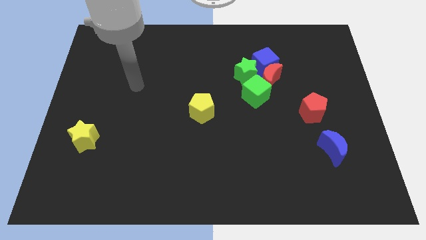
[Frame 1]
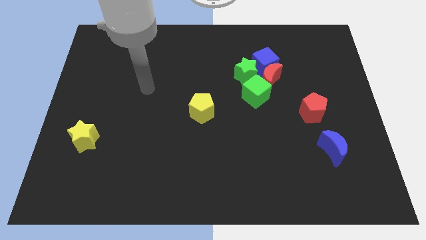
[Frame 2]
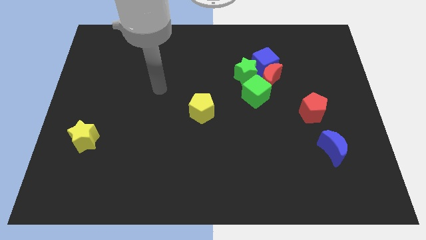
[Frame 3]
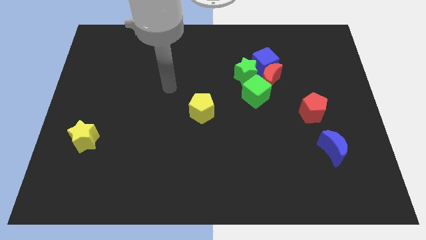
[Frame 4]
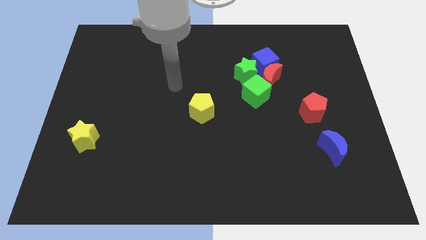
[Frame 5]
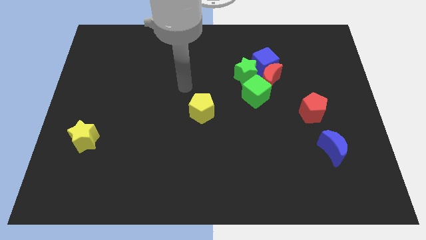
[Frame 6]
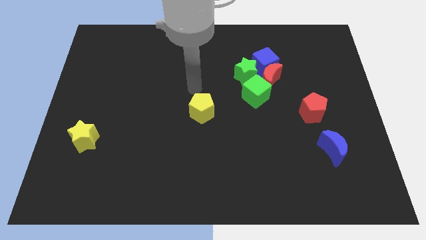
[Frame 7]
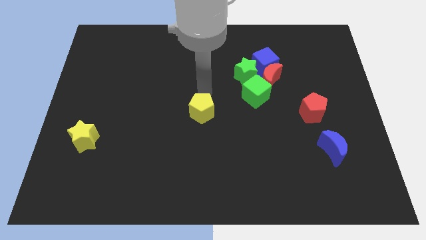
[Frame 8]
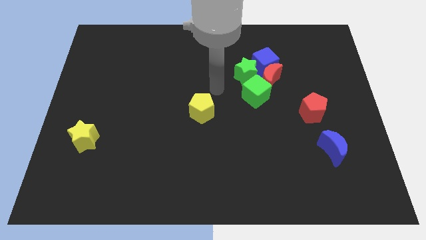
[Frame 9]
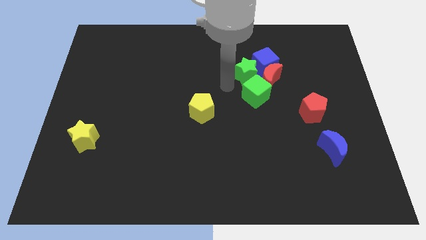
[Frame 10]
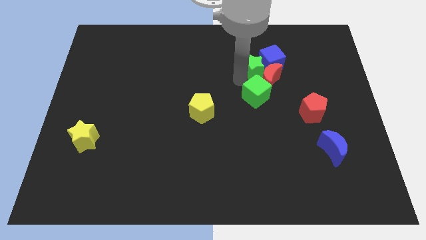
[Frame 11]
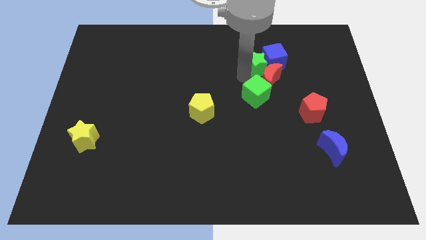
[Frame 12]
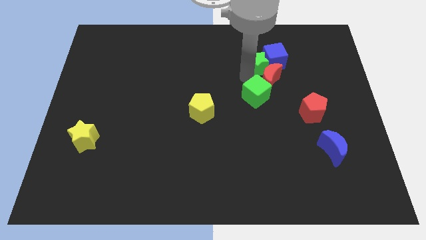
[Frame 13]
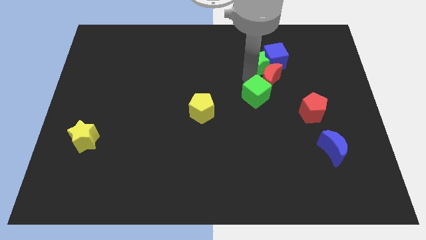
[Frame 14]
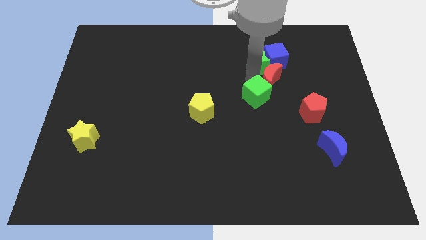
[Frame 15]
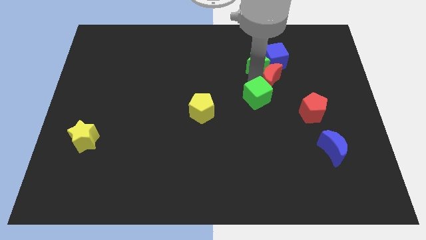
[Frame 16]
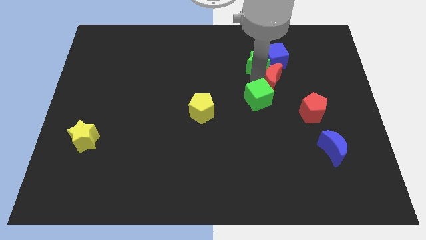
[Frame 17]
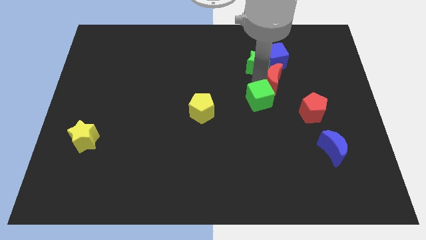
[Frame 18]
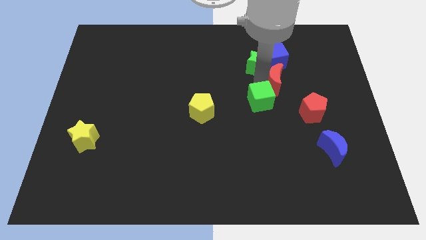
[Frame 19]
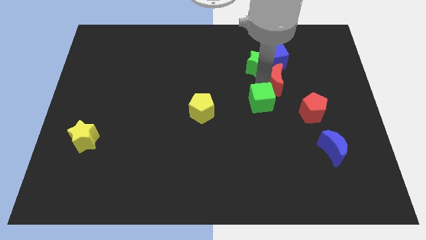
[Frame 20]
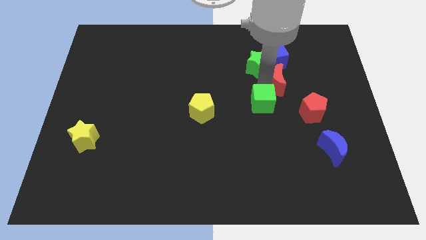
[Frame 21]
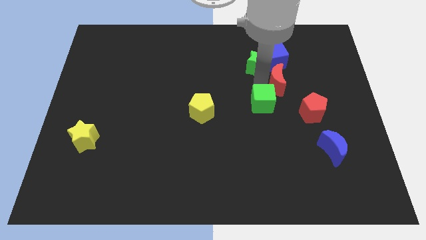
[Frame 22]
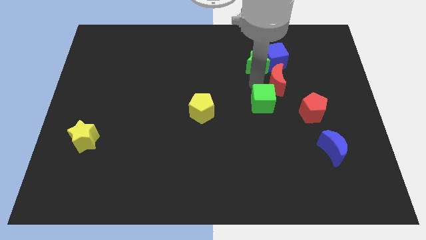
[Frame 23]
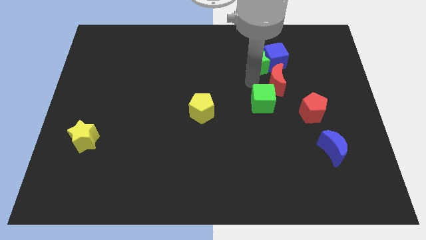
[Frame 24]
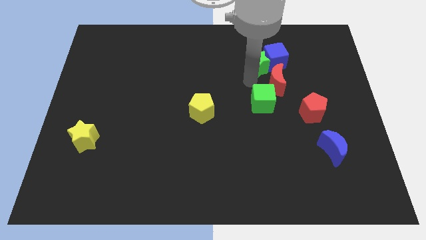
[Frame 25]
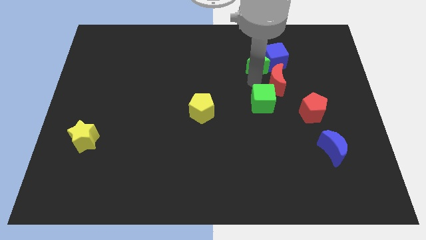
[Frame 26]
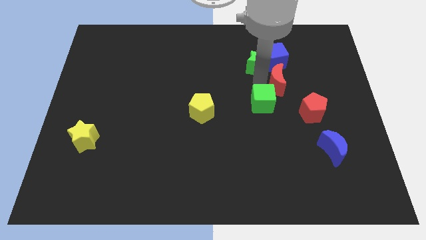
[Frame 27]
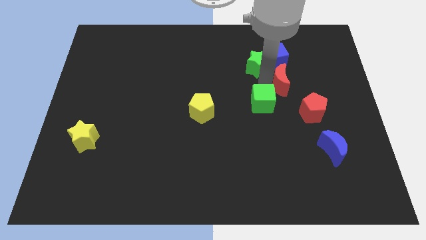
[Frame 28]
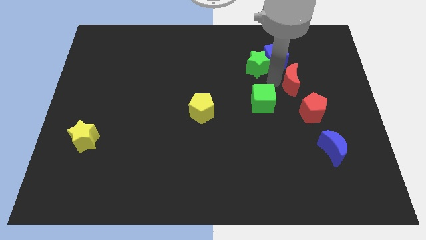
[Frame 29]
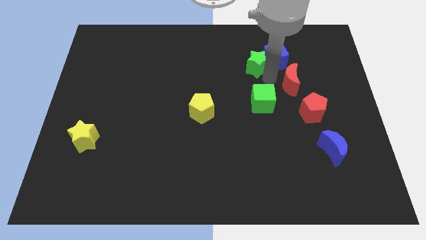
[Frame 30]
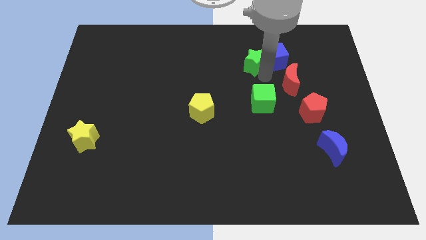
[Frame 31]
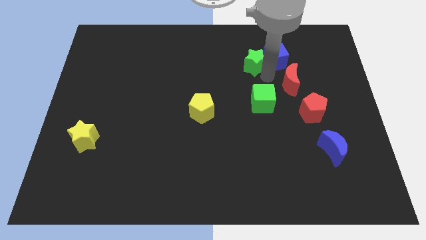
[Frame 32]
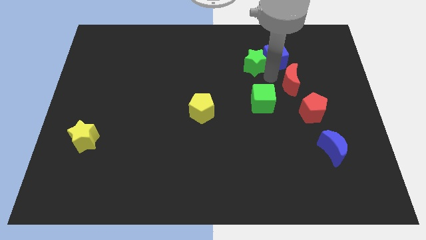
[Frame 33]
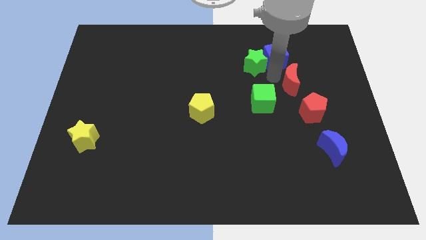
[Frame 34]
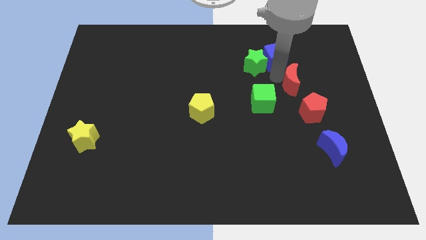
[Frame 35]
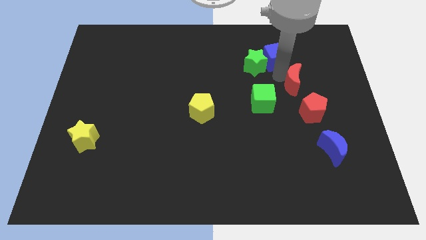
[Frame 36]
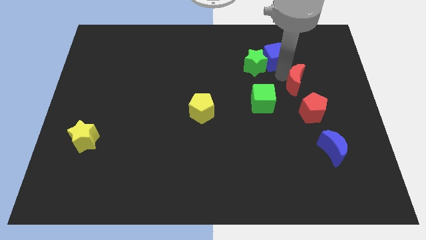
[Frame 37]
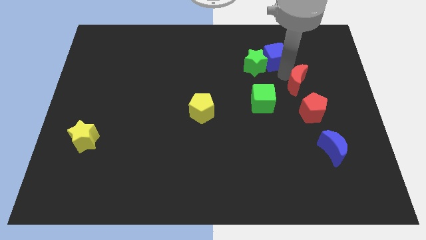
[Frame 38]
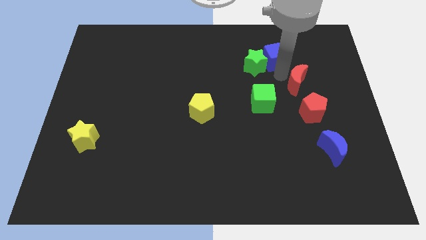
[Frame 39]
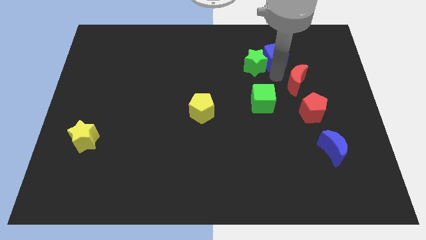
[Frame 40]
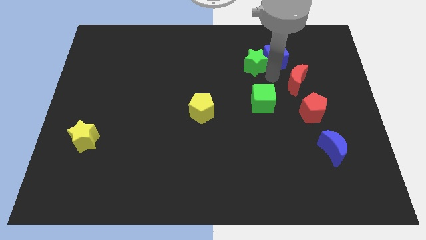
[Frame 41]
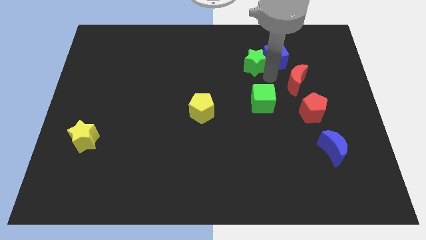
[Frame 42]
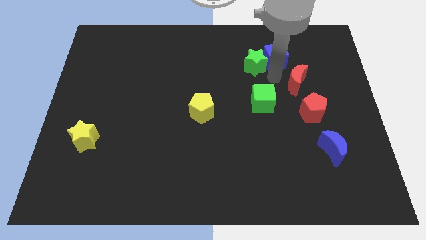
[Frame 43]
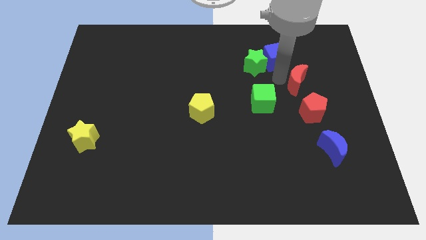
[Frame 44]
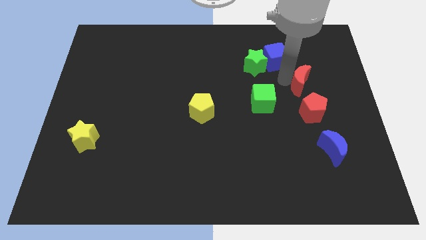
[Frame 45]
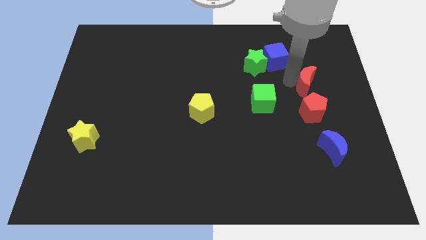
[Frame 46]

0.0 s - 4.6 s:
pull the red moon apart from the group

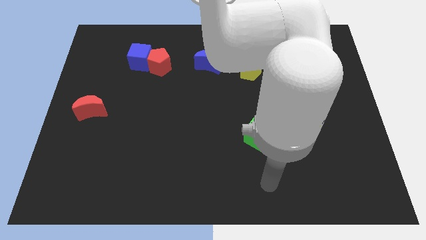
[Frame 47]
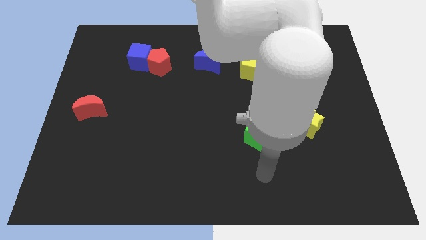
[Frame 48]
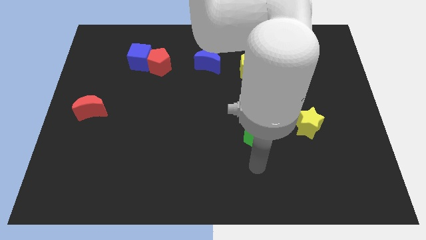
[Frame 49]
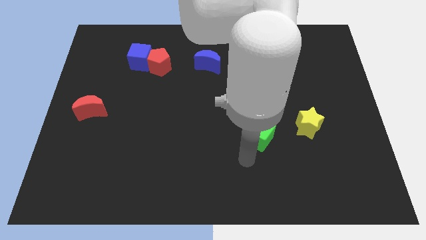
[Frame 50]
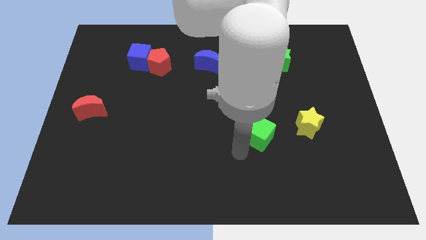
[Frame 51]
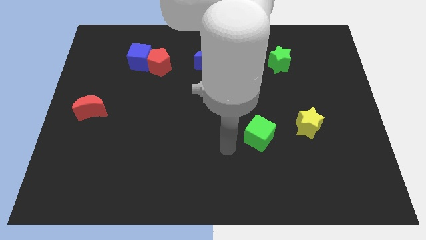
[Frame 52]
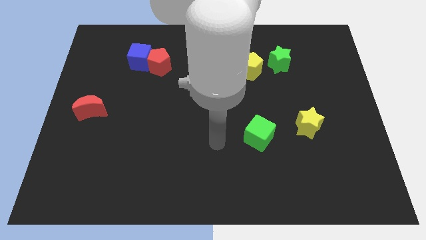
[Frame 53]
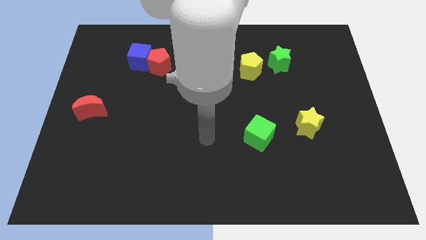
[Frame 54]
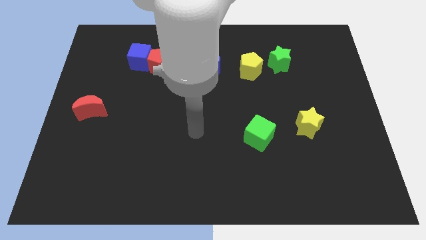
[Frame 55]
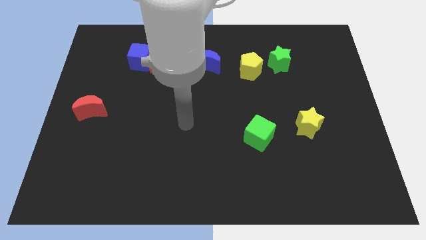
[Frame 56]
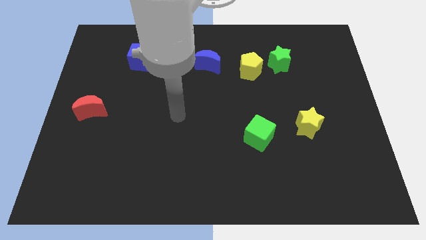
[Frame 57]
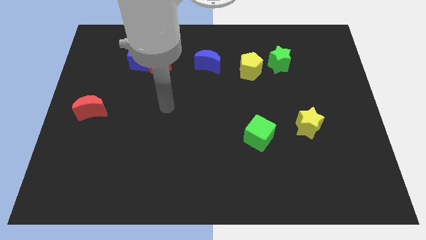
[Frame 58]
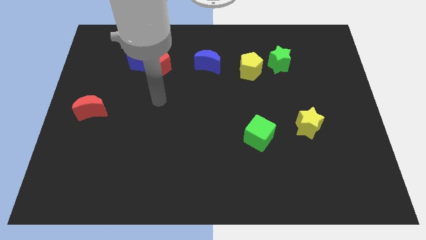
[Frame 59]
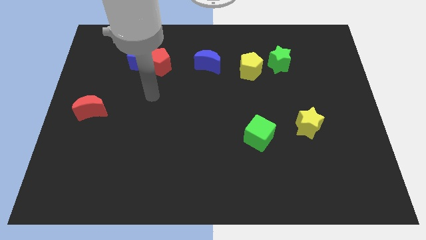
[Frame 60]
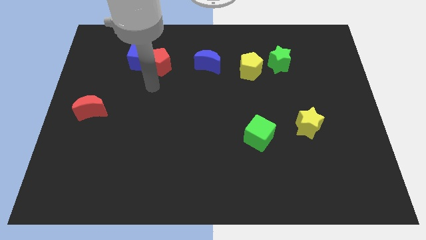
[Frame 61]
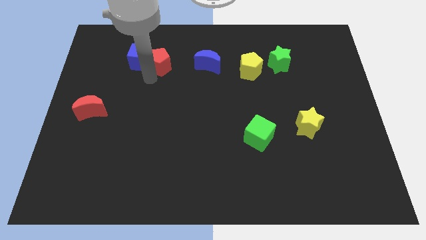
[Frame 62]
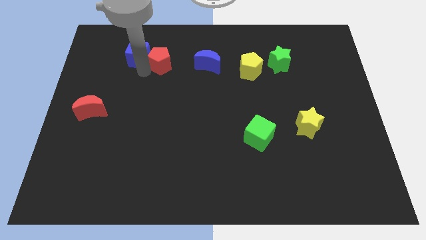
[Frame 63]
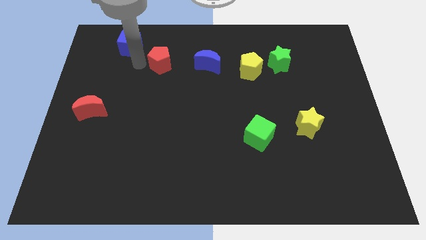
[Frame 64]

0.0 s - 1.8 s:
separate the red pentagon from the blue cube

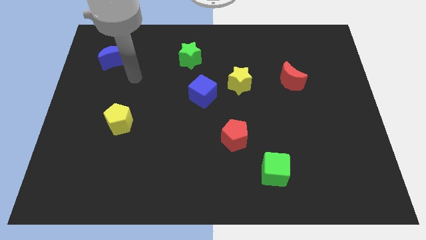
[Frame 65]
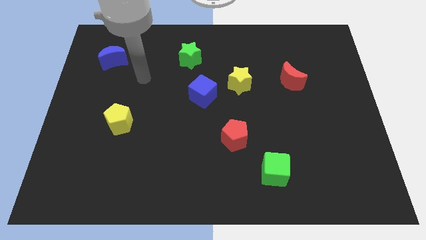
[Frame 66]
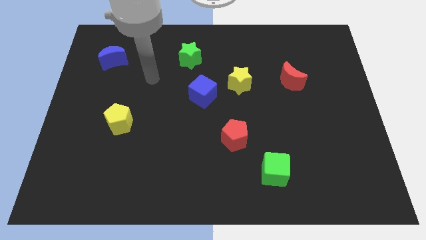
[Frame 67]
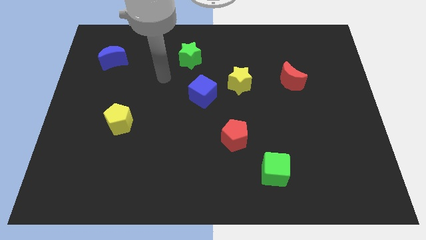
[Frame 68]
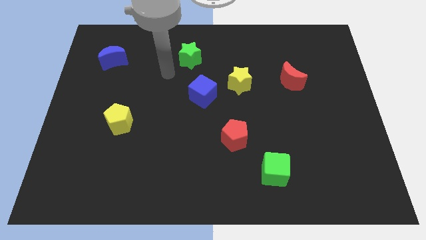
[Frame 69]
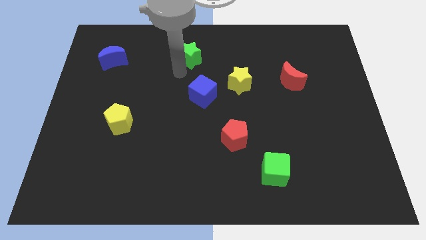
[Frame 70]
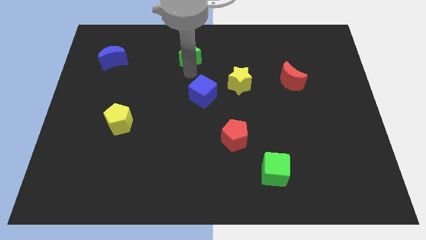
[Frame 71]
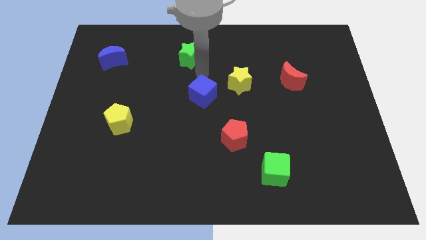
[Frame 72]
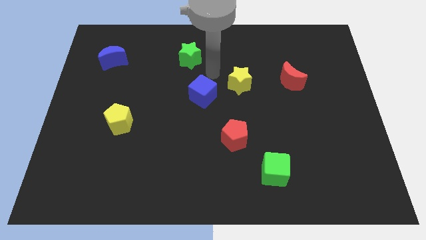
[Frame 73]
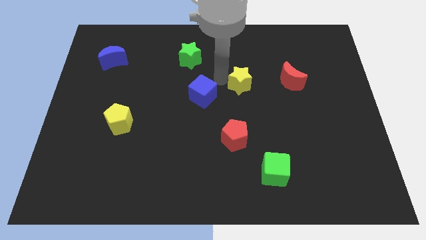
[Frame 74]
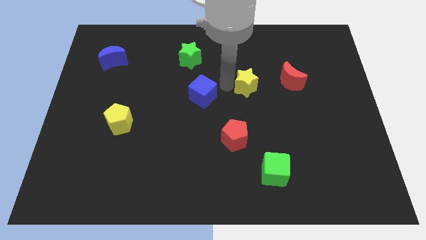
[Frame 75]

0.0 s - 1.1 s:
pull the blue cube apart from the yellow star

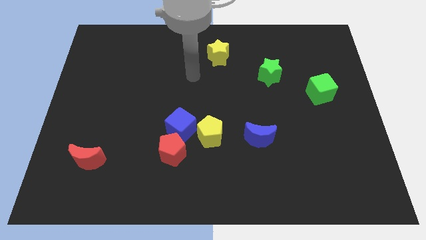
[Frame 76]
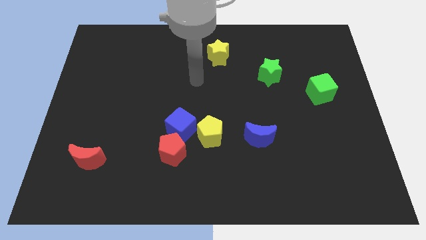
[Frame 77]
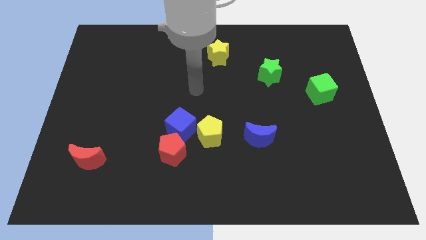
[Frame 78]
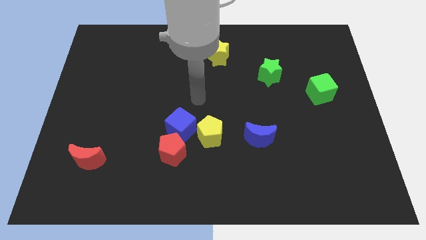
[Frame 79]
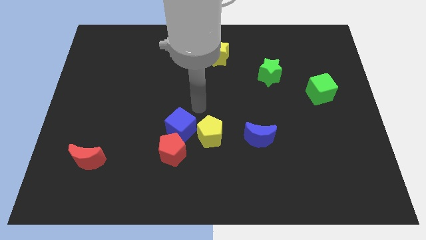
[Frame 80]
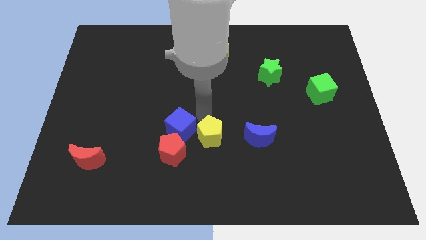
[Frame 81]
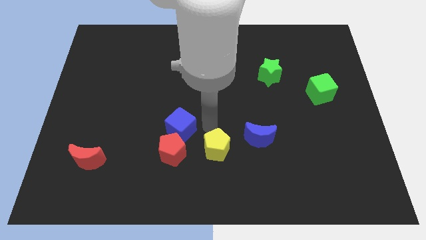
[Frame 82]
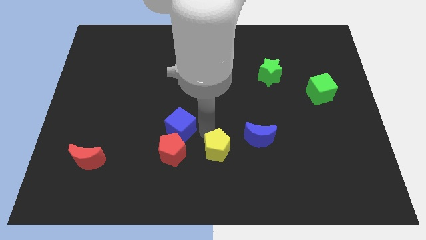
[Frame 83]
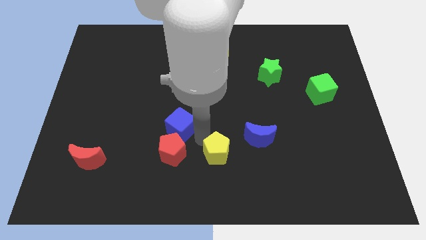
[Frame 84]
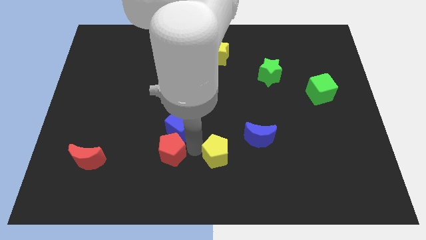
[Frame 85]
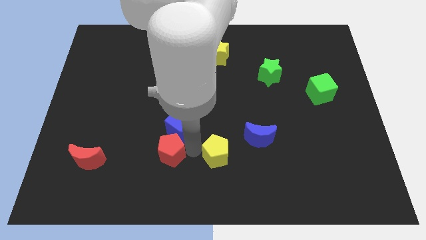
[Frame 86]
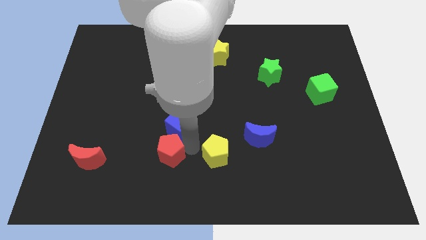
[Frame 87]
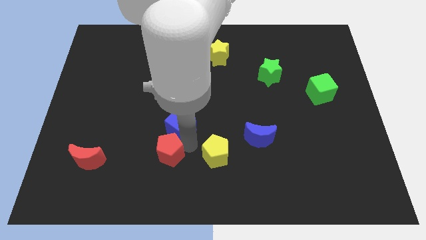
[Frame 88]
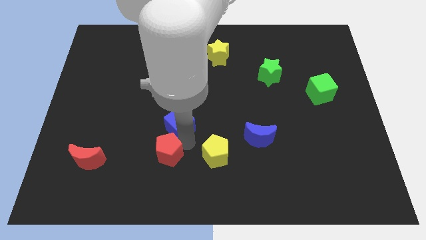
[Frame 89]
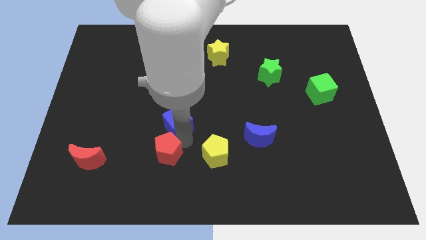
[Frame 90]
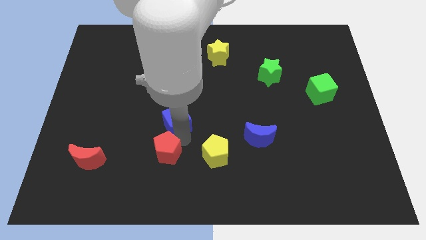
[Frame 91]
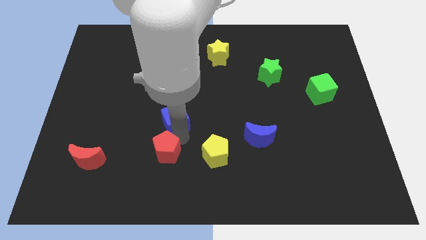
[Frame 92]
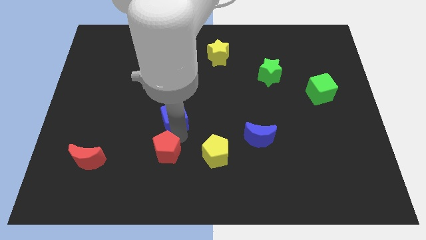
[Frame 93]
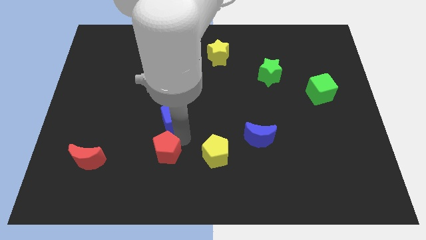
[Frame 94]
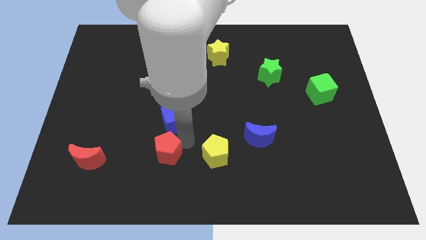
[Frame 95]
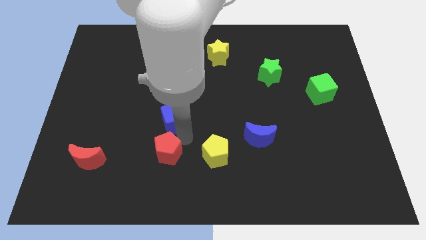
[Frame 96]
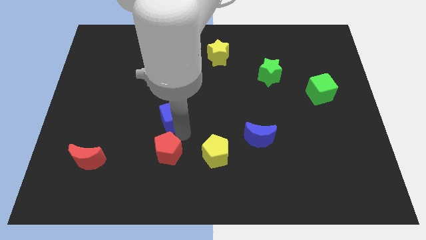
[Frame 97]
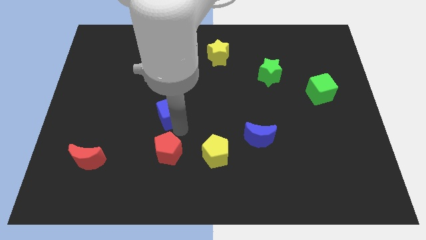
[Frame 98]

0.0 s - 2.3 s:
pull the blue cube apart from the red pentagon and yellow pentagon
